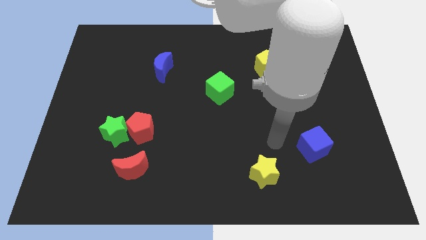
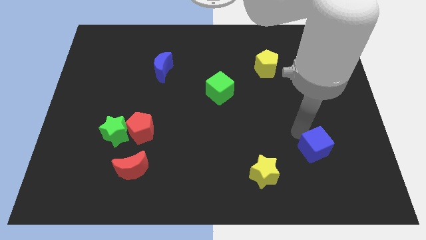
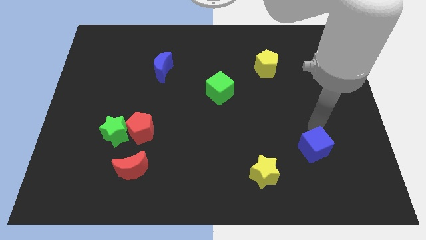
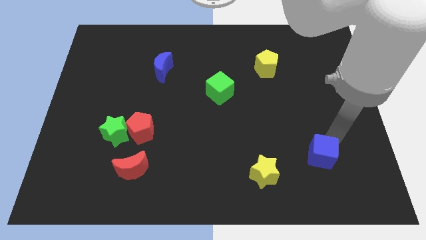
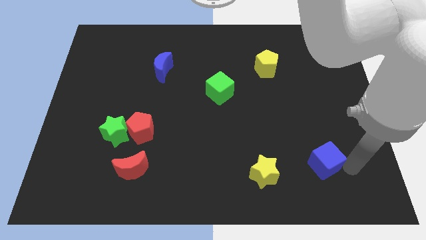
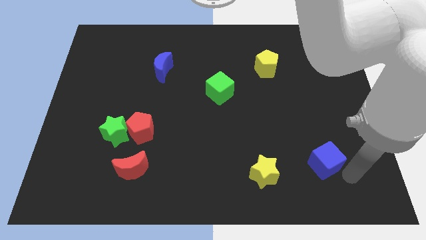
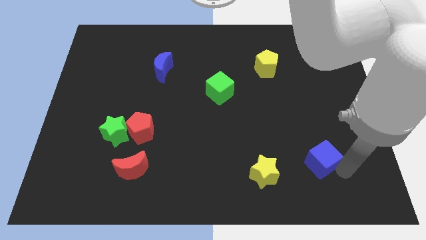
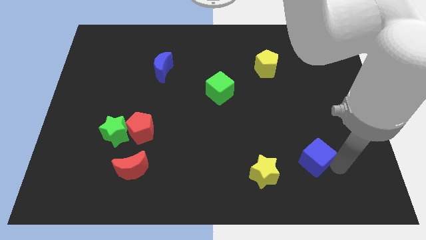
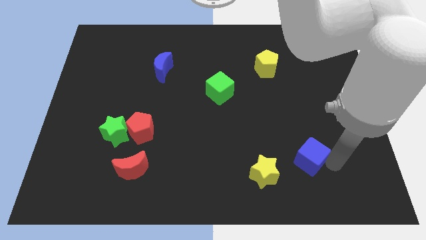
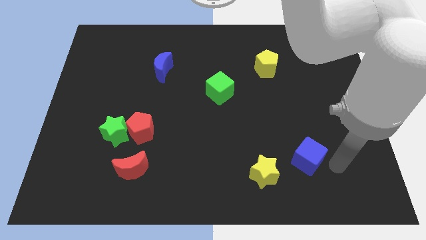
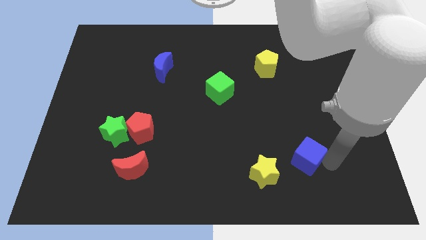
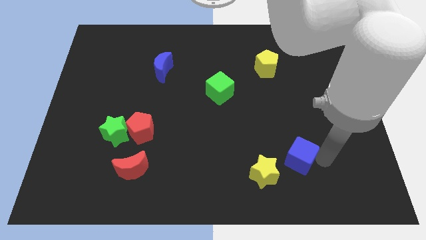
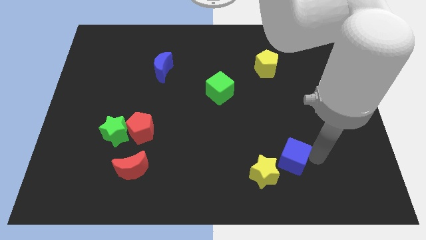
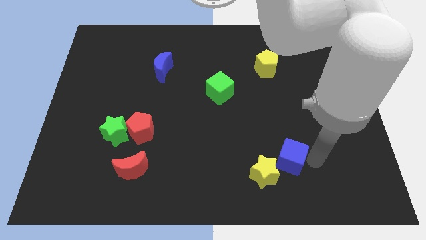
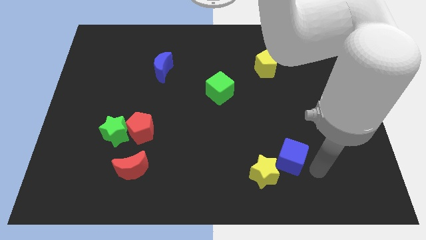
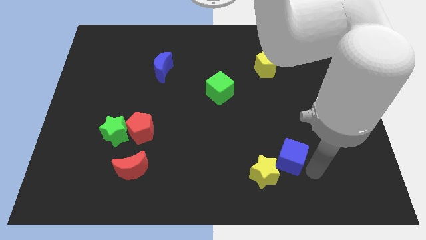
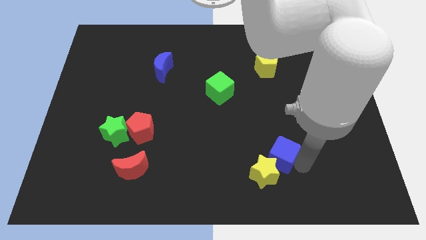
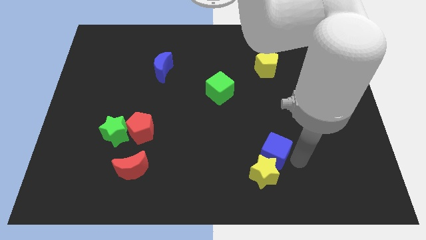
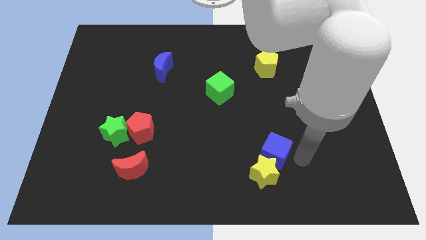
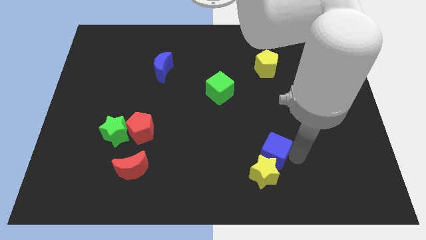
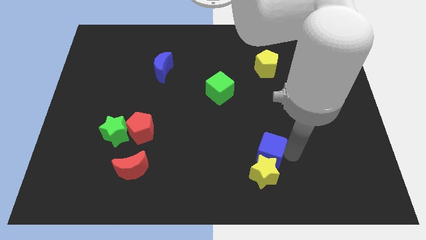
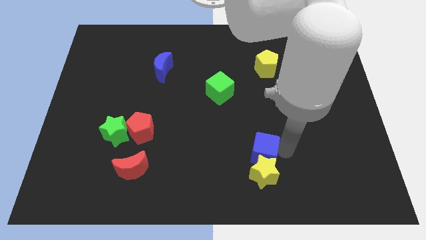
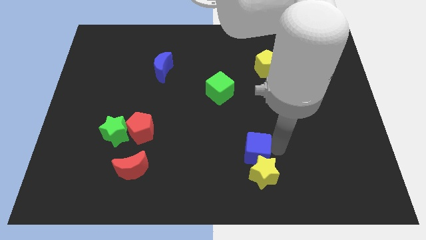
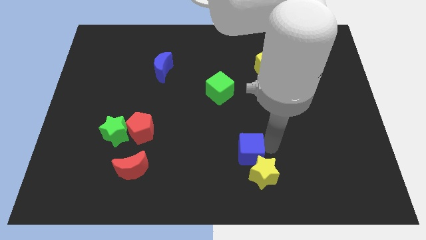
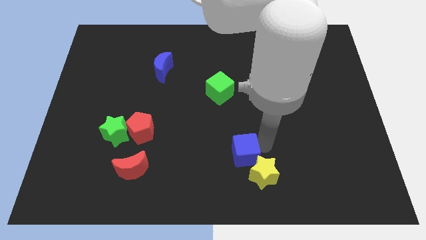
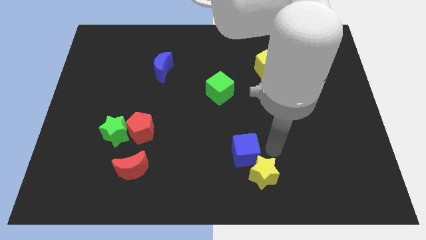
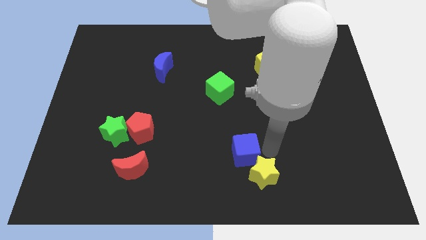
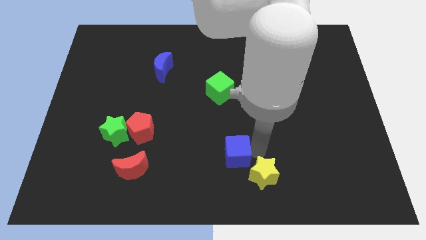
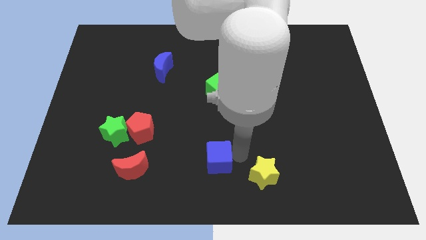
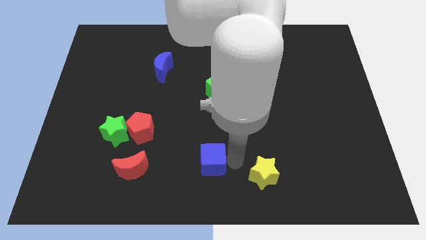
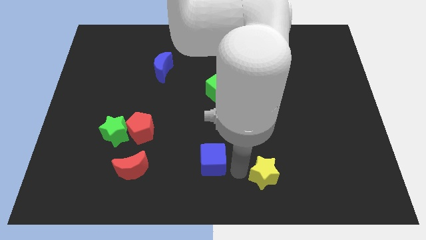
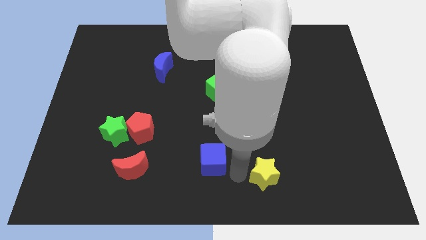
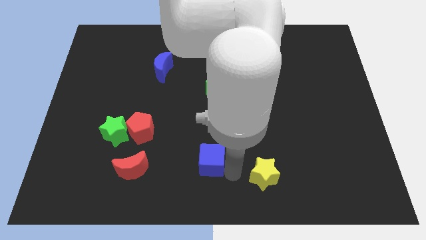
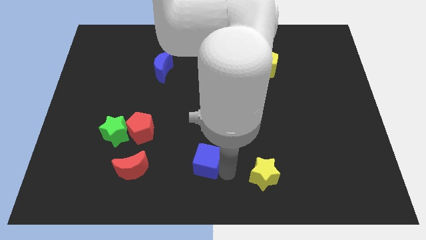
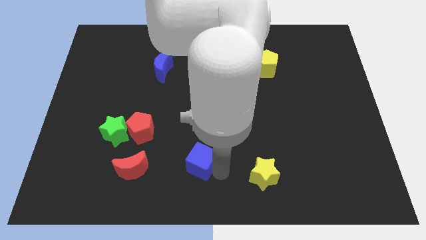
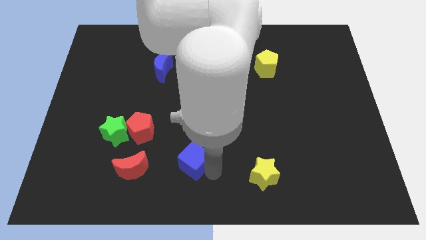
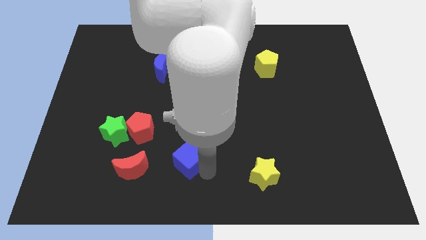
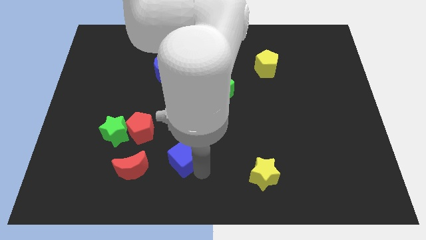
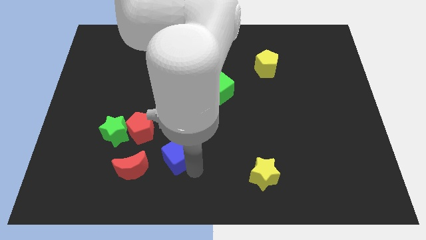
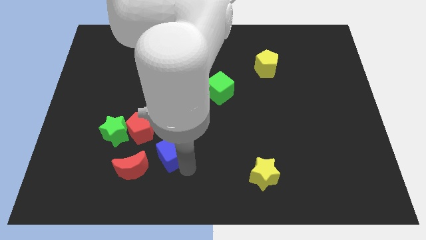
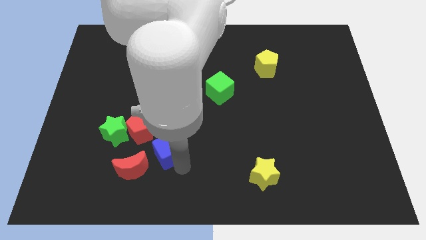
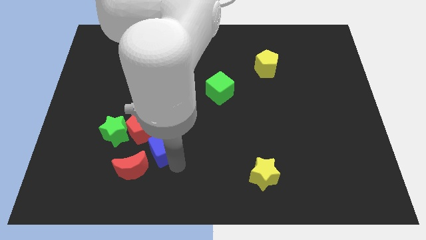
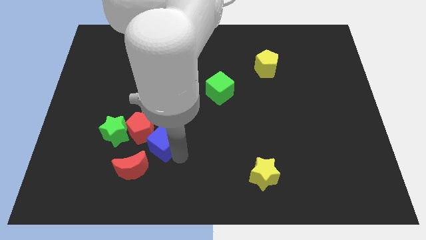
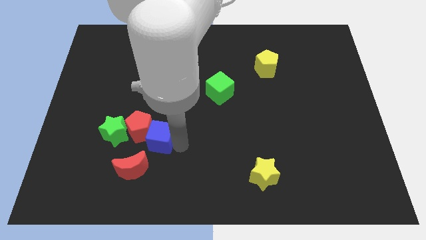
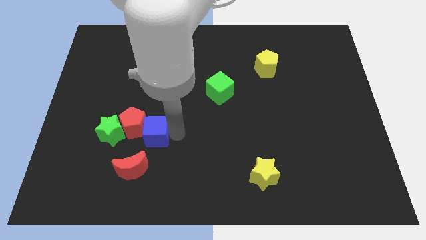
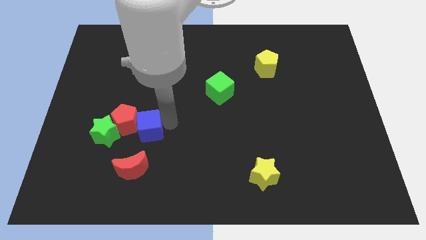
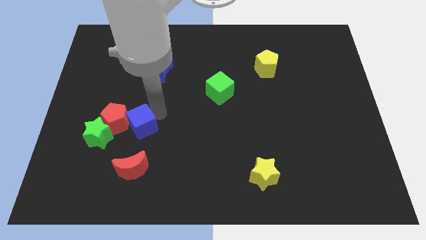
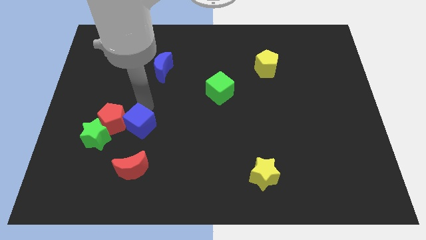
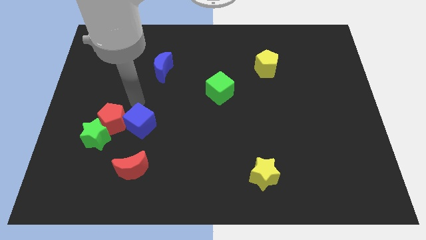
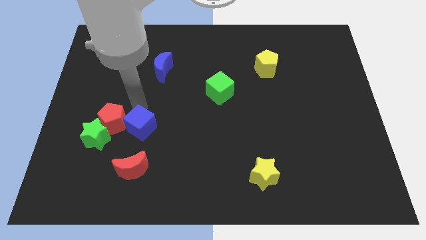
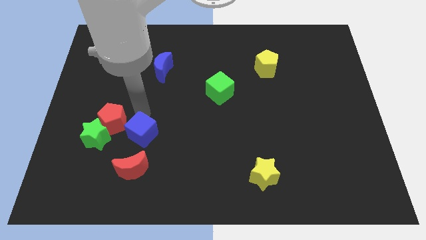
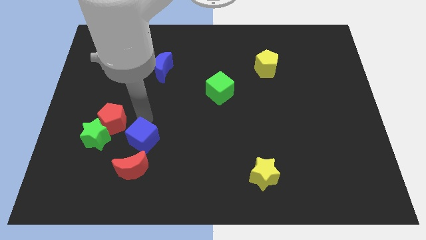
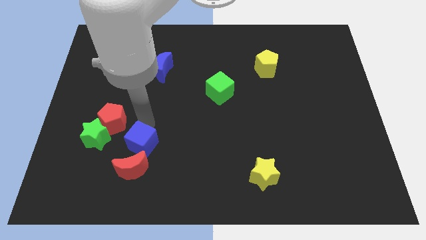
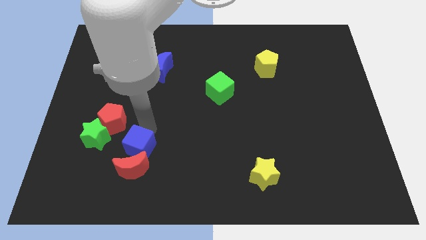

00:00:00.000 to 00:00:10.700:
push the blue cube next to the red moon

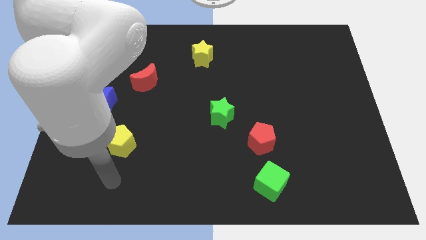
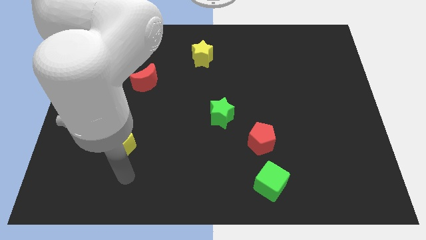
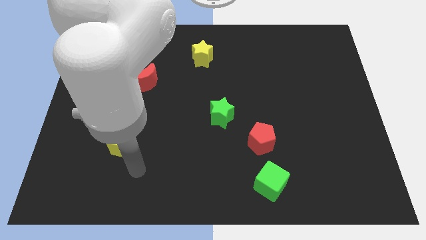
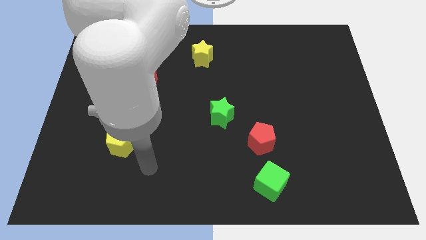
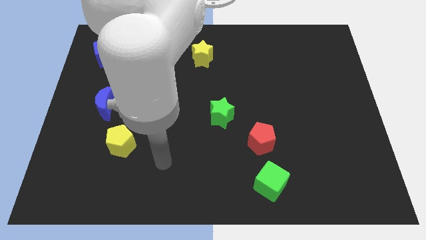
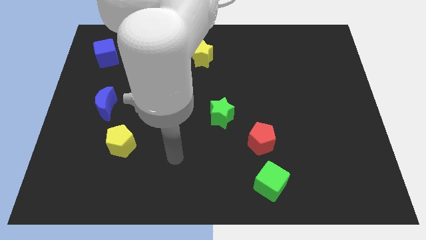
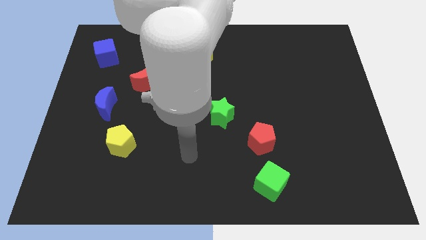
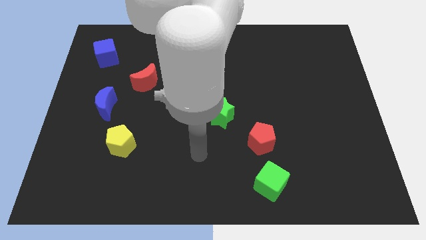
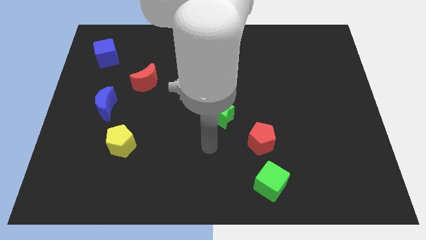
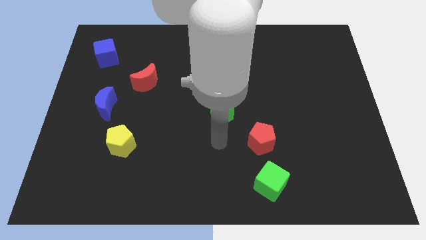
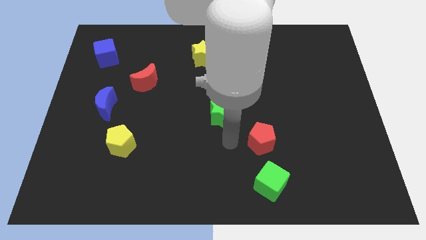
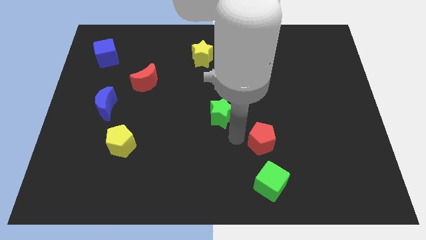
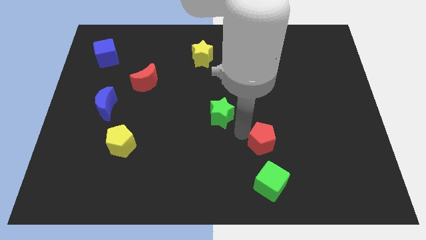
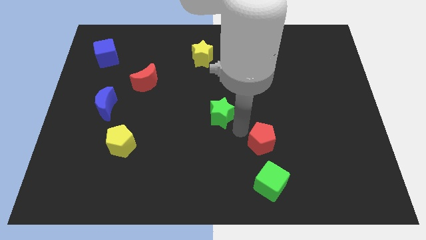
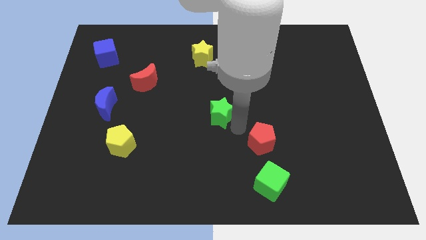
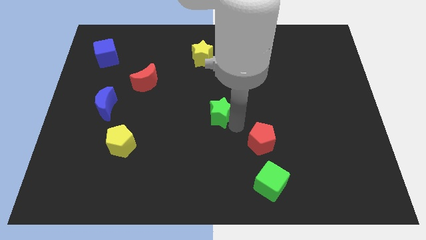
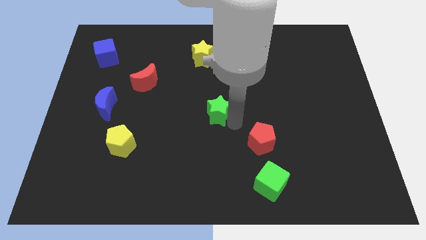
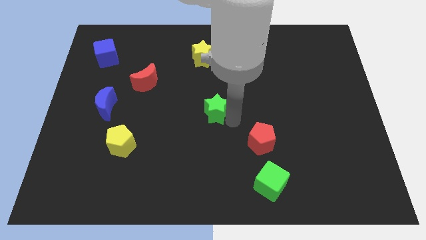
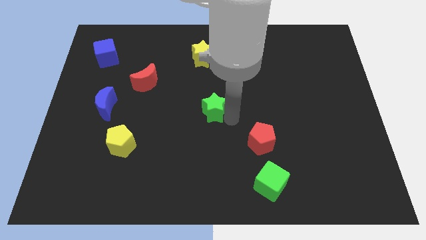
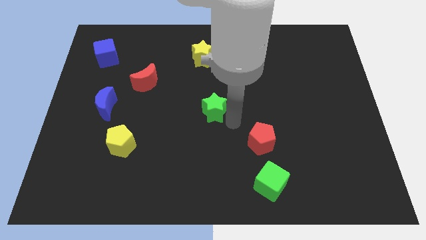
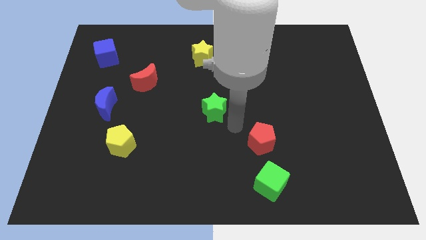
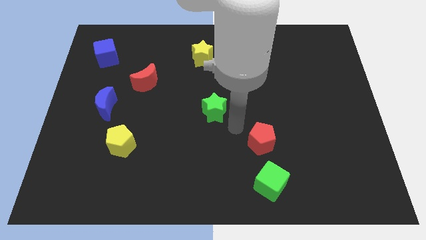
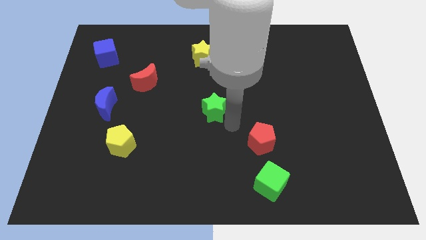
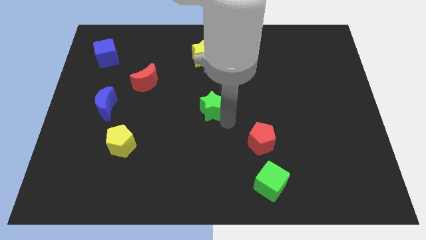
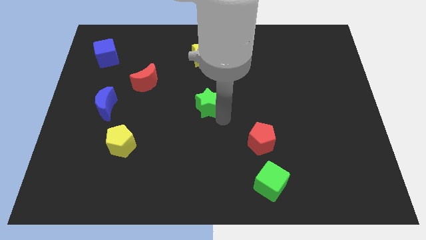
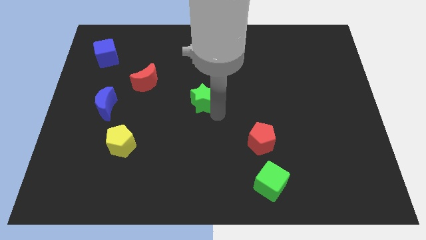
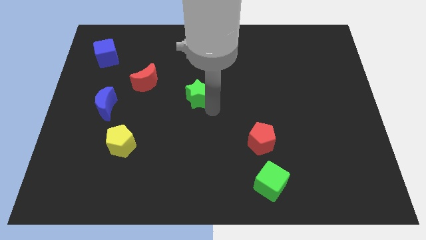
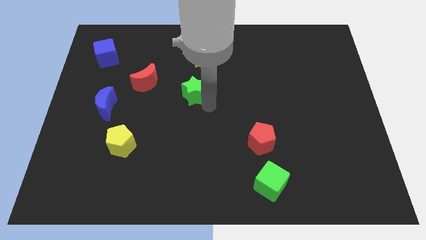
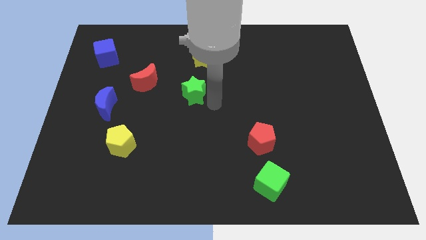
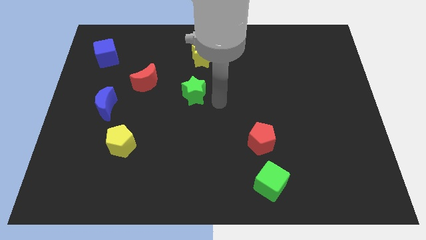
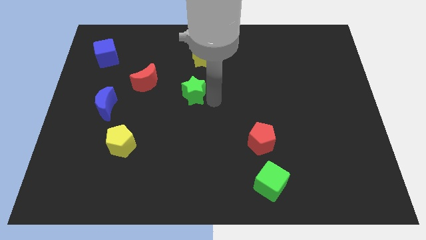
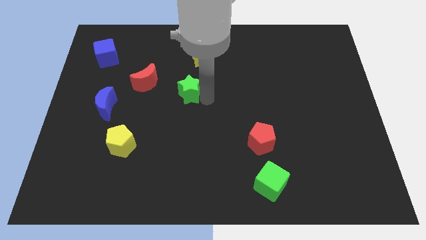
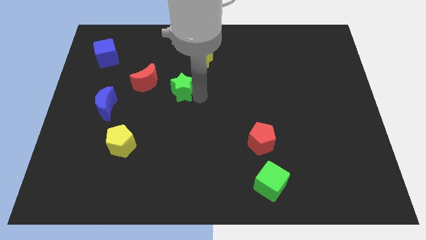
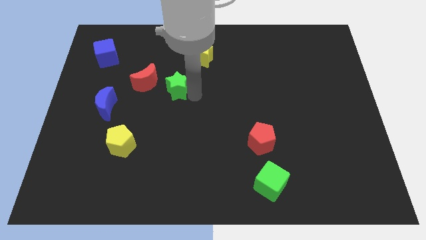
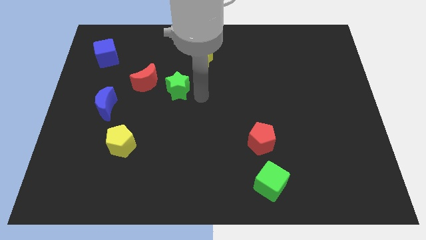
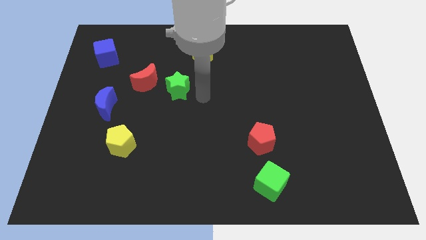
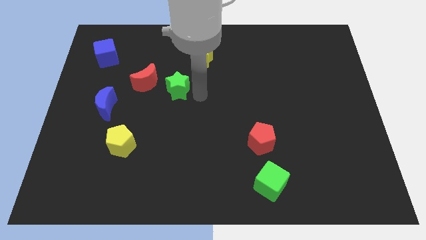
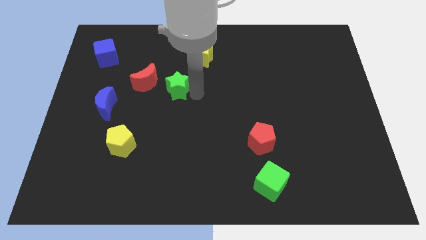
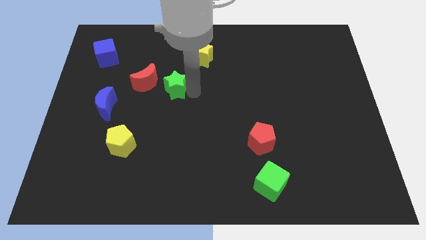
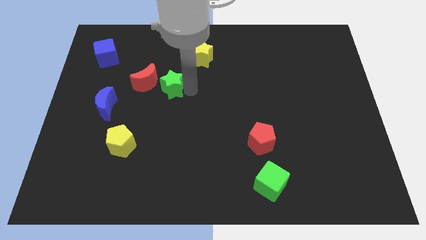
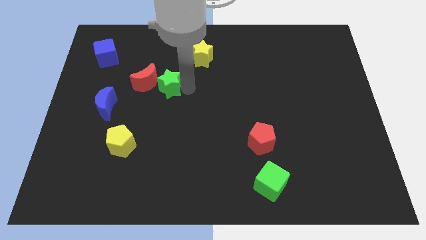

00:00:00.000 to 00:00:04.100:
move the green star next to the red moon
